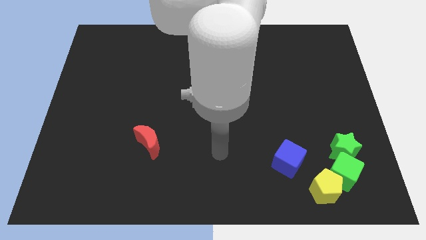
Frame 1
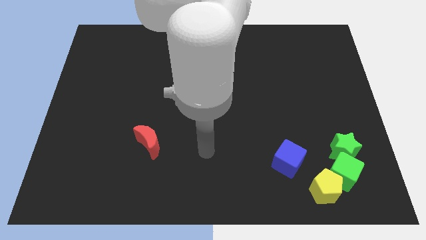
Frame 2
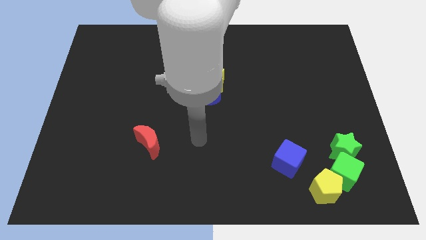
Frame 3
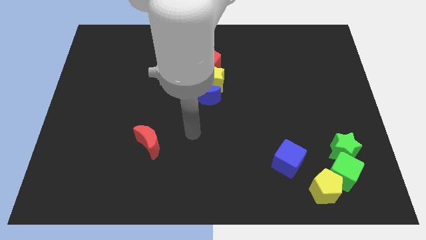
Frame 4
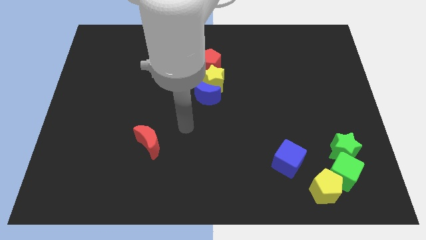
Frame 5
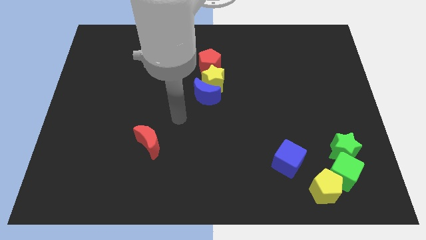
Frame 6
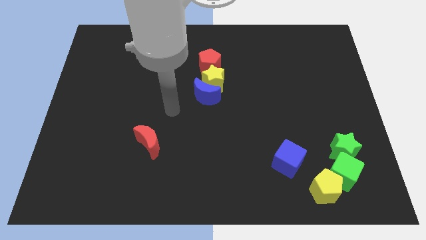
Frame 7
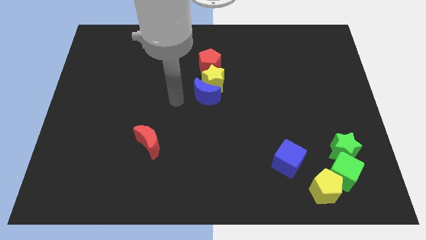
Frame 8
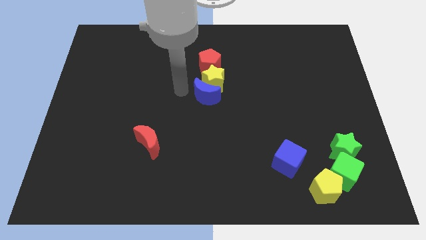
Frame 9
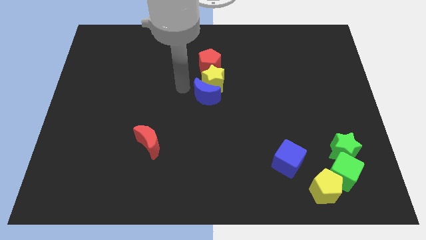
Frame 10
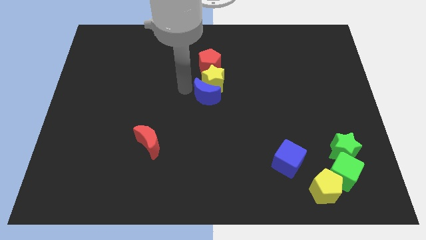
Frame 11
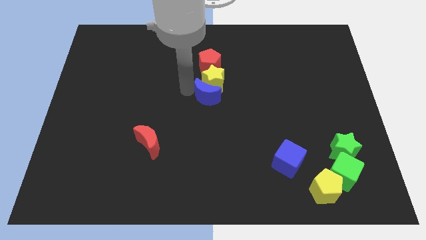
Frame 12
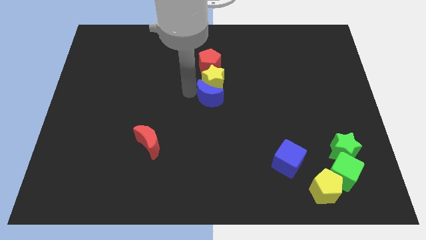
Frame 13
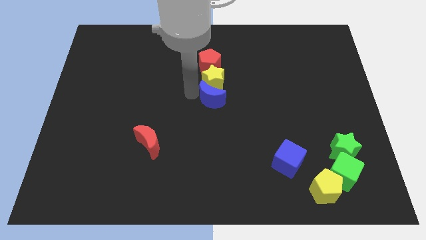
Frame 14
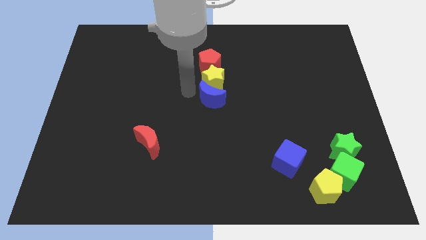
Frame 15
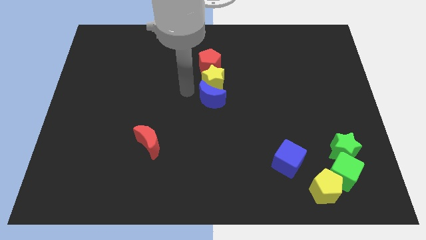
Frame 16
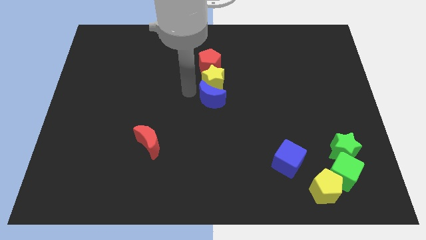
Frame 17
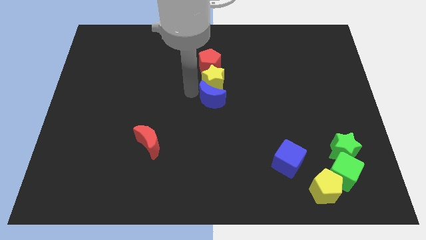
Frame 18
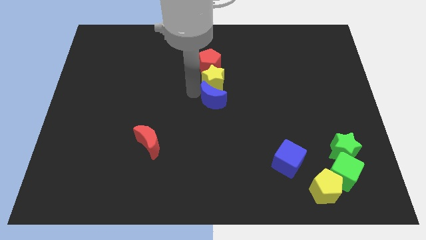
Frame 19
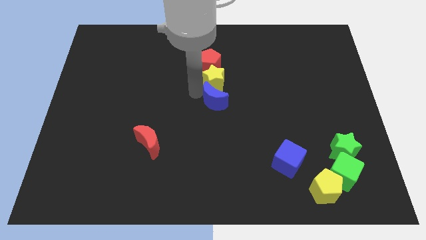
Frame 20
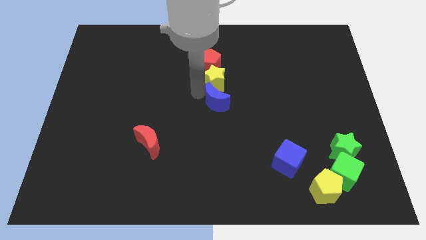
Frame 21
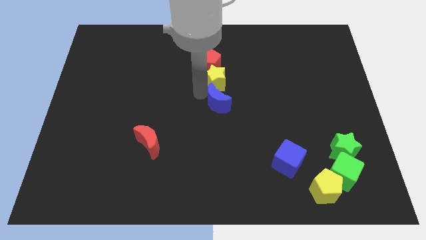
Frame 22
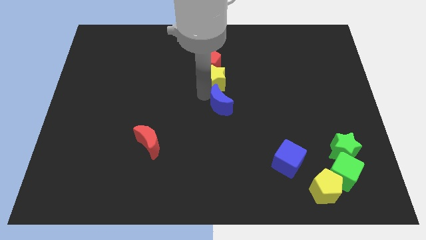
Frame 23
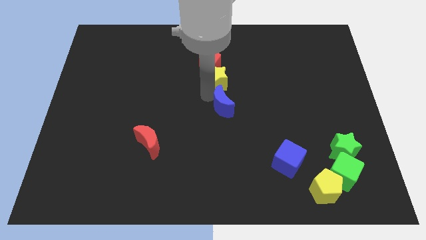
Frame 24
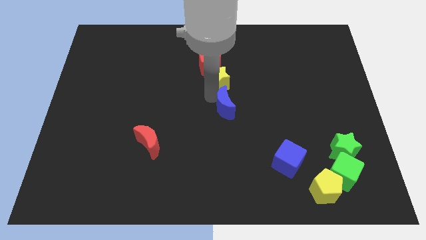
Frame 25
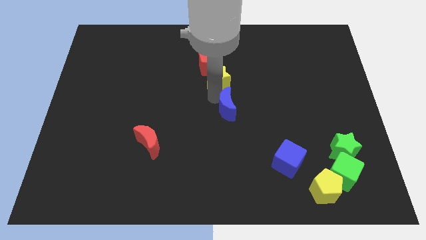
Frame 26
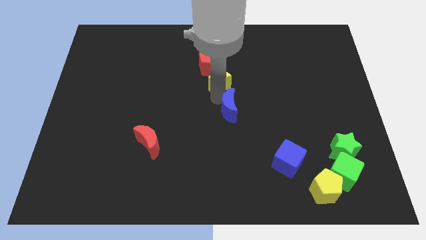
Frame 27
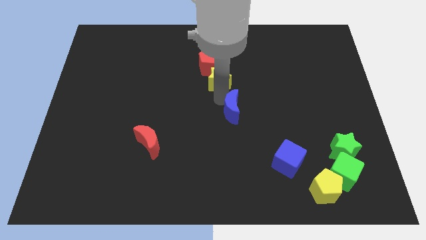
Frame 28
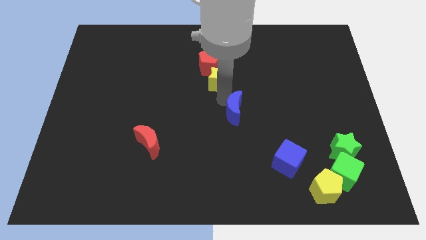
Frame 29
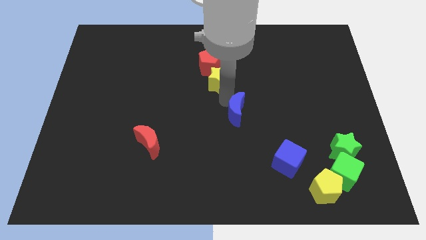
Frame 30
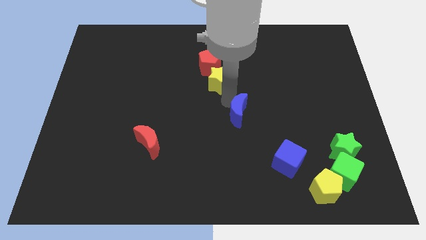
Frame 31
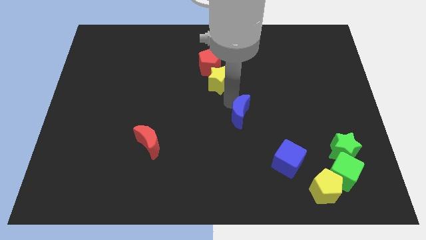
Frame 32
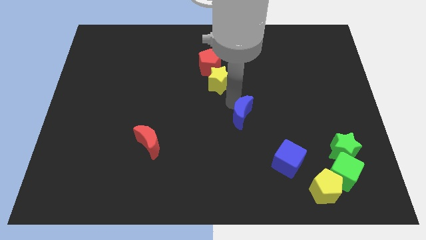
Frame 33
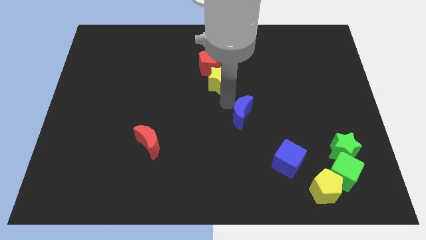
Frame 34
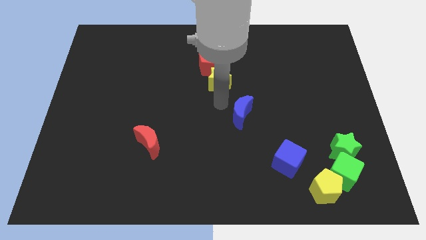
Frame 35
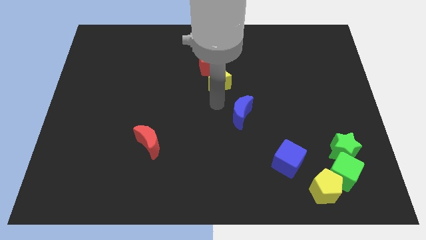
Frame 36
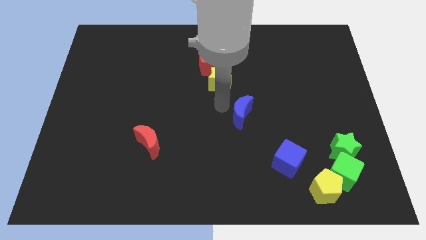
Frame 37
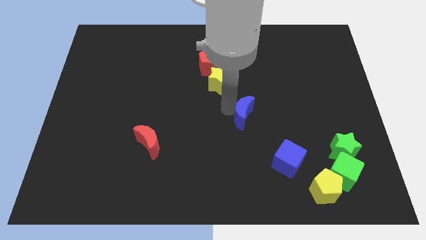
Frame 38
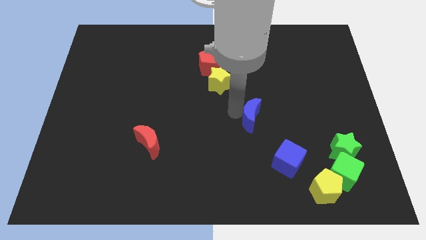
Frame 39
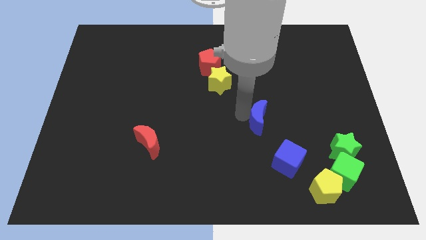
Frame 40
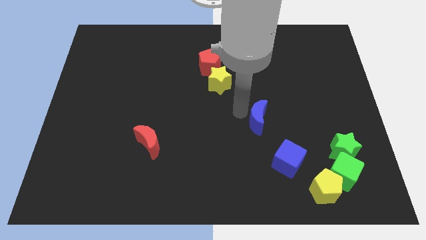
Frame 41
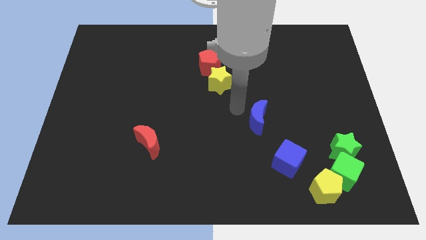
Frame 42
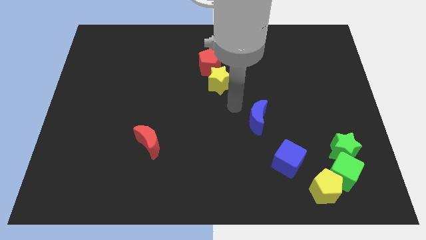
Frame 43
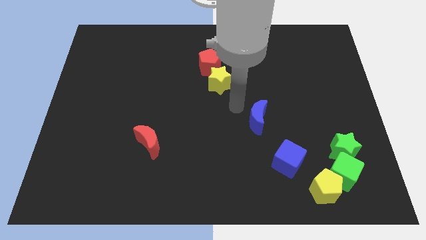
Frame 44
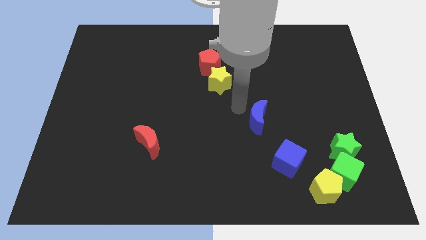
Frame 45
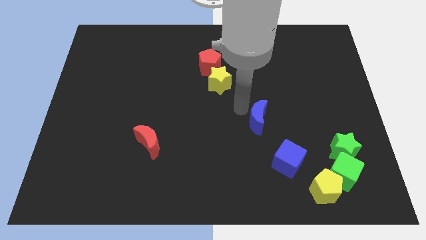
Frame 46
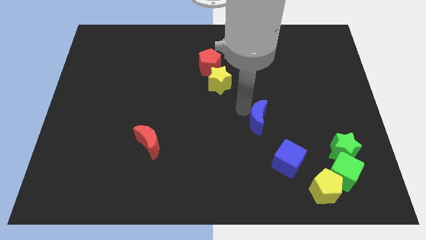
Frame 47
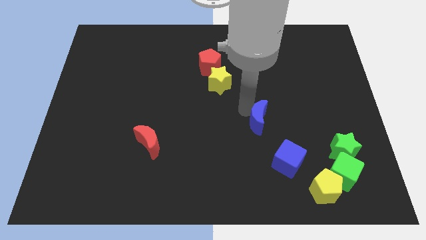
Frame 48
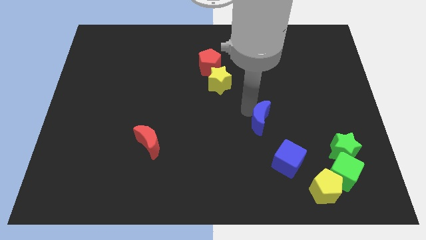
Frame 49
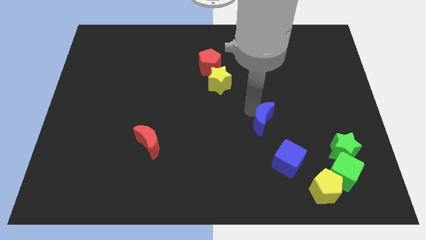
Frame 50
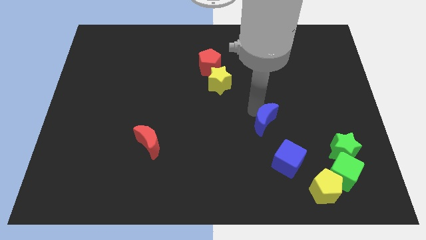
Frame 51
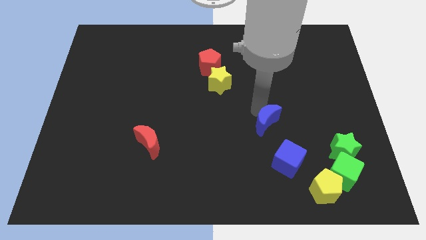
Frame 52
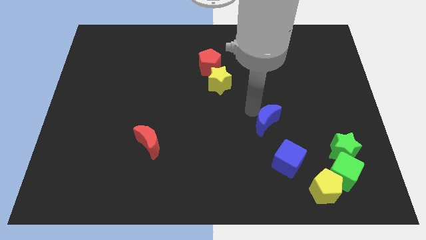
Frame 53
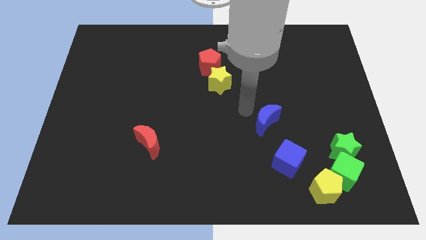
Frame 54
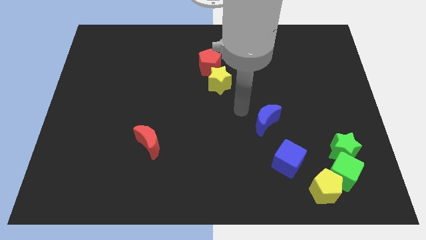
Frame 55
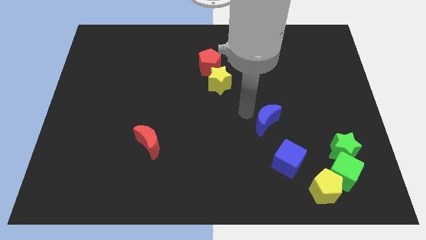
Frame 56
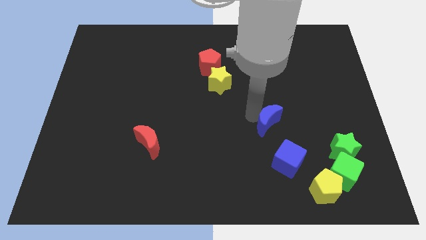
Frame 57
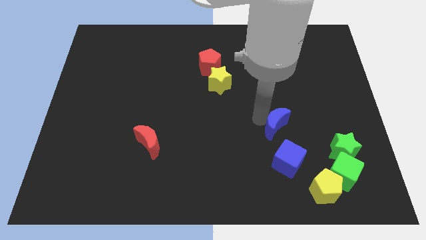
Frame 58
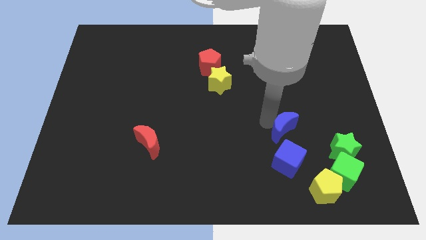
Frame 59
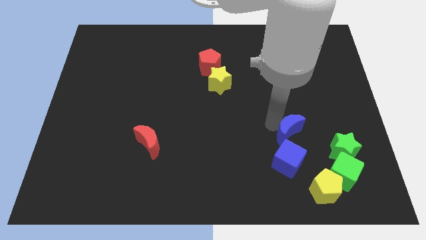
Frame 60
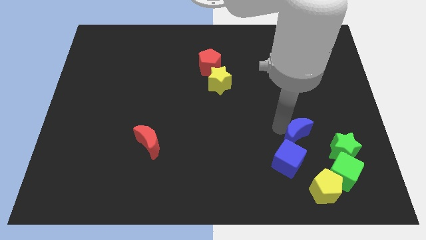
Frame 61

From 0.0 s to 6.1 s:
push the blue moon above the yellow pentagon

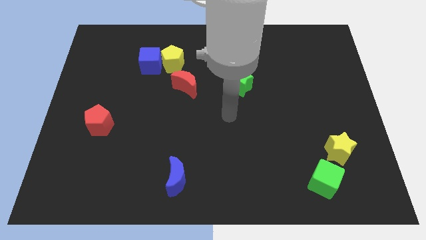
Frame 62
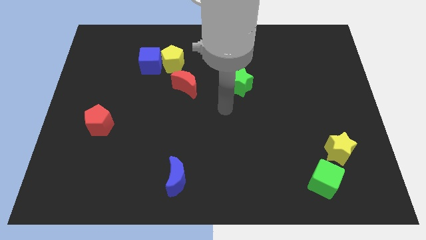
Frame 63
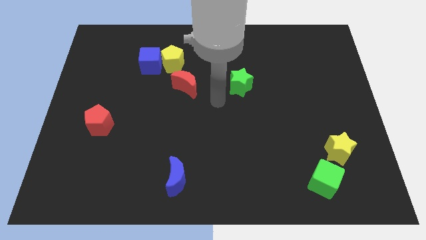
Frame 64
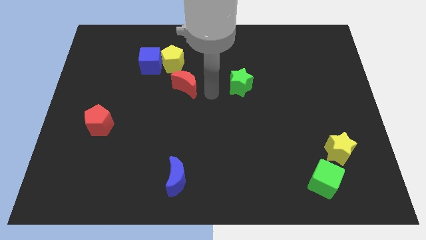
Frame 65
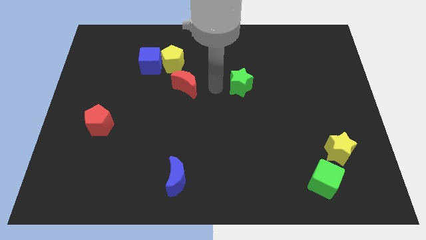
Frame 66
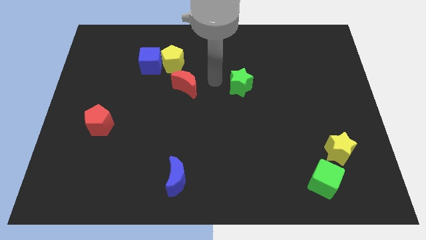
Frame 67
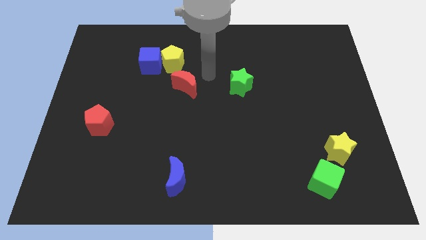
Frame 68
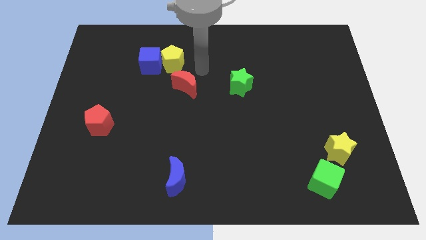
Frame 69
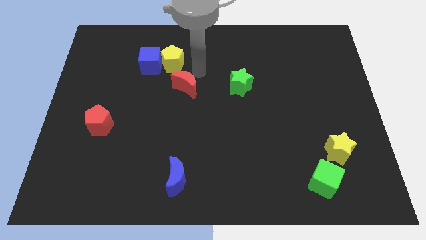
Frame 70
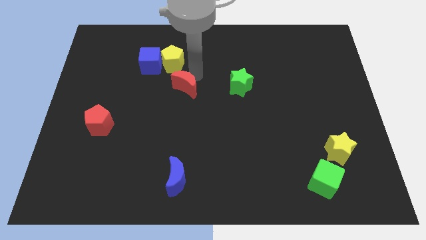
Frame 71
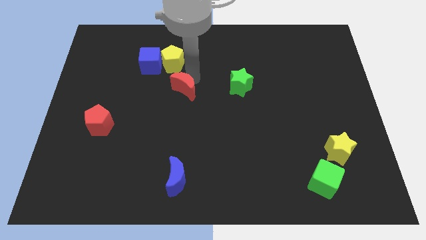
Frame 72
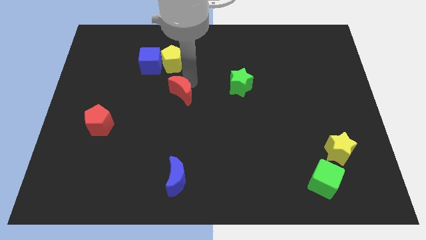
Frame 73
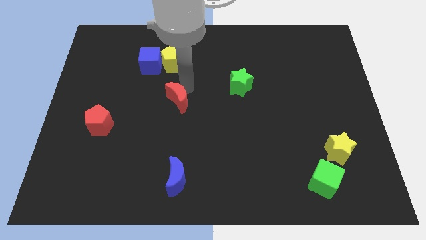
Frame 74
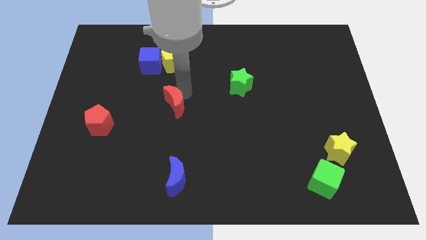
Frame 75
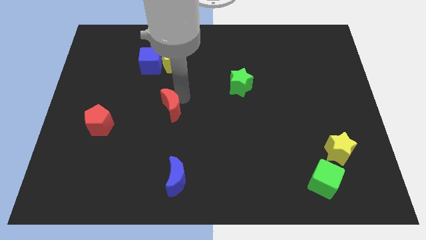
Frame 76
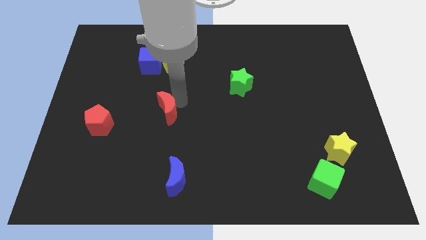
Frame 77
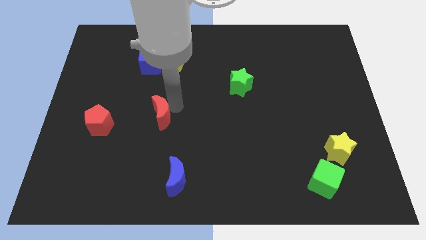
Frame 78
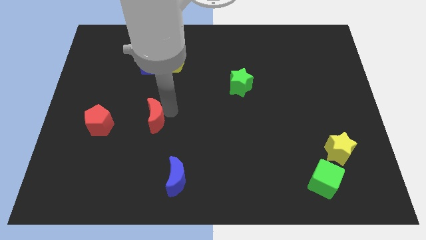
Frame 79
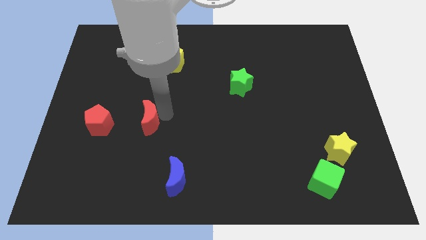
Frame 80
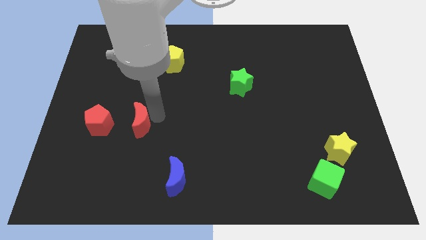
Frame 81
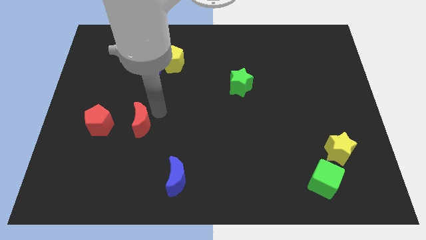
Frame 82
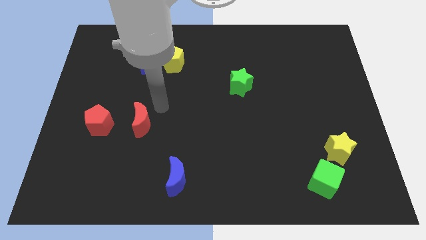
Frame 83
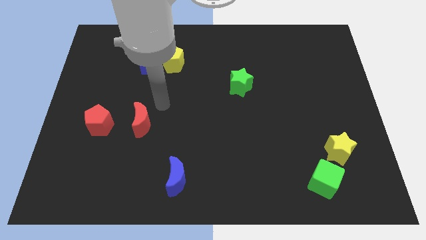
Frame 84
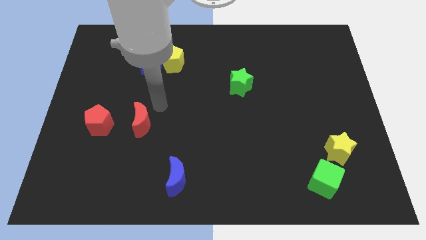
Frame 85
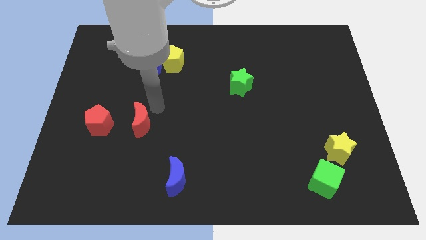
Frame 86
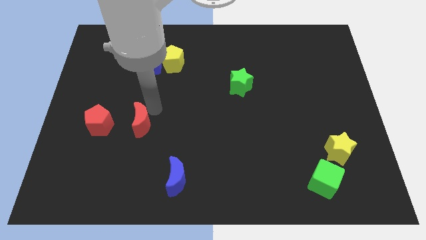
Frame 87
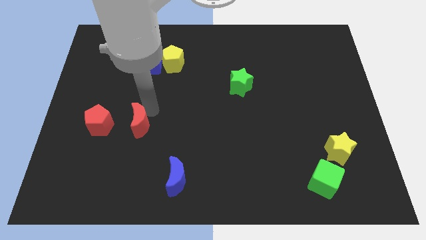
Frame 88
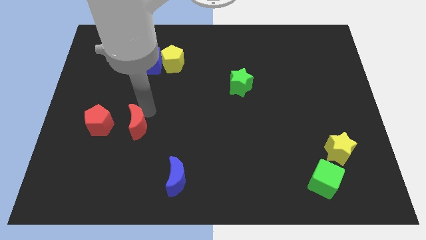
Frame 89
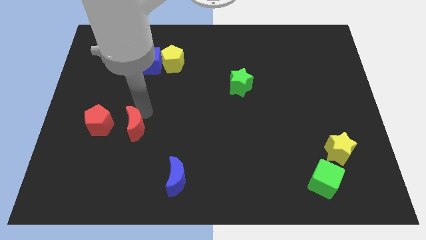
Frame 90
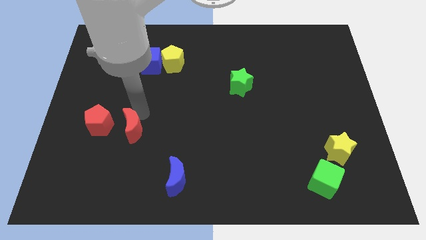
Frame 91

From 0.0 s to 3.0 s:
push the red moon to the bottom right of the red pentagon
